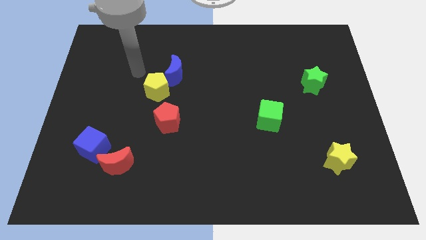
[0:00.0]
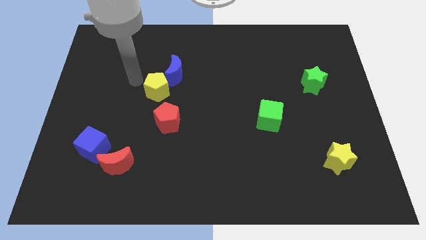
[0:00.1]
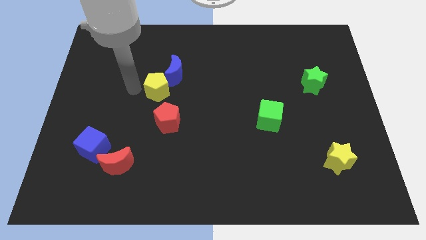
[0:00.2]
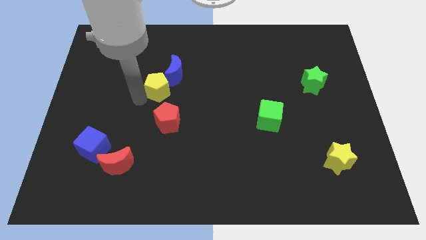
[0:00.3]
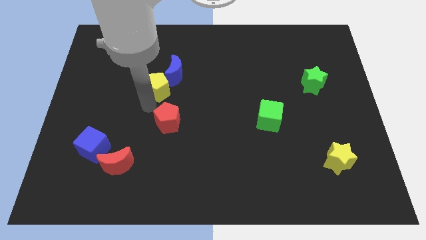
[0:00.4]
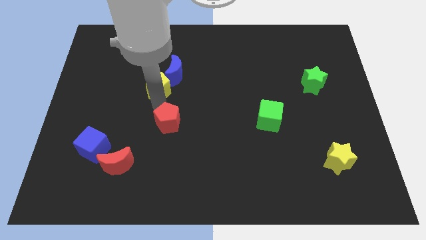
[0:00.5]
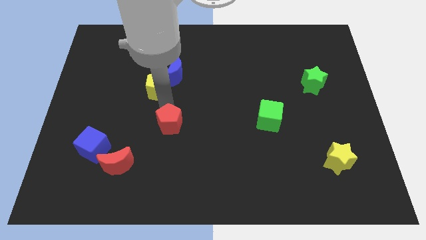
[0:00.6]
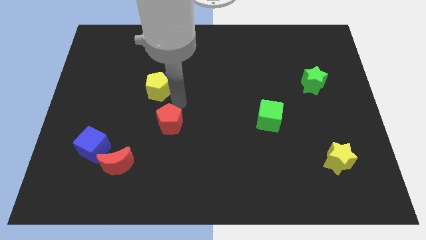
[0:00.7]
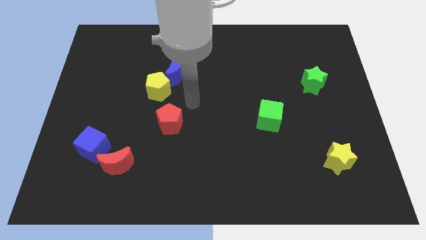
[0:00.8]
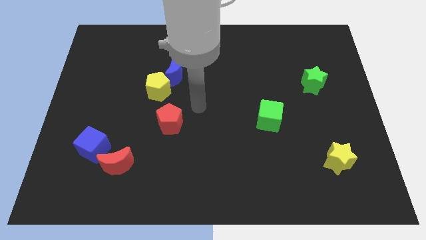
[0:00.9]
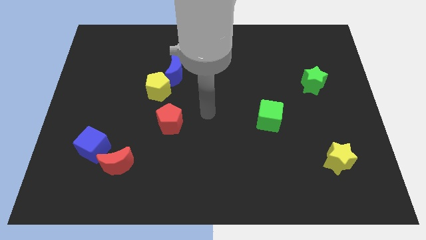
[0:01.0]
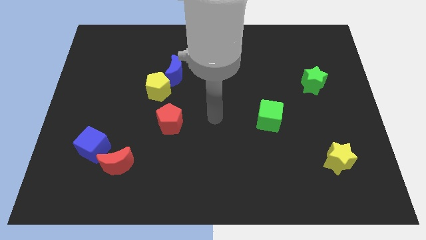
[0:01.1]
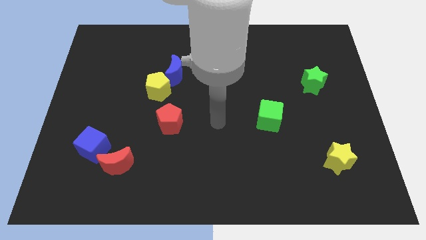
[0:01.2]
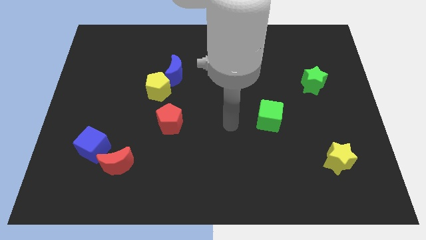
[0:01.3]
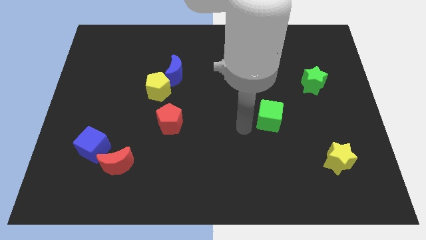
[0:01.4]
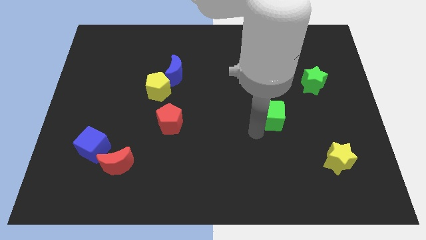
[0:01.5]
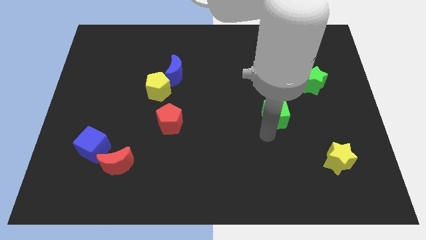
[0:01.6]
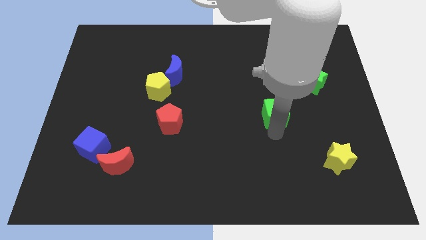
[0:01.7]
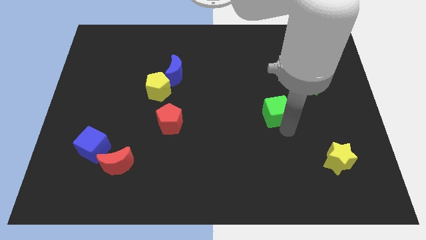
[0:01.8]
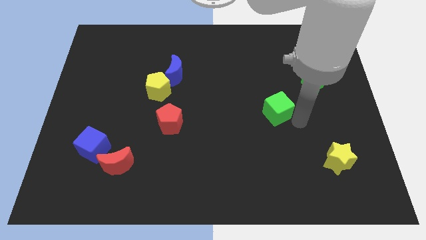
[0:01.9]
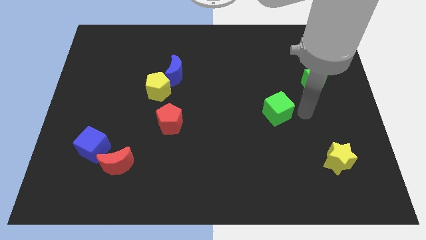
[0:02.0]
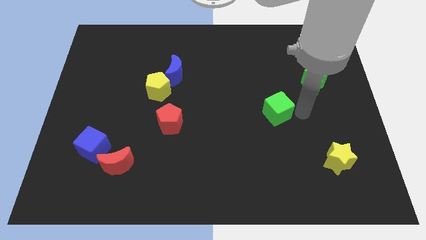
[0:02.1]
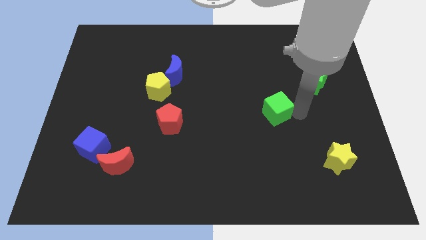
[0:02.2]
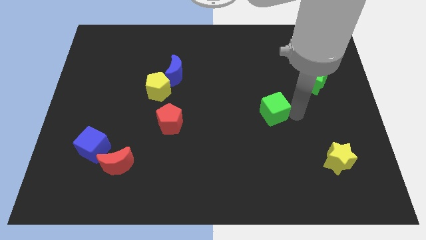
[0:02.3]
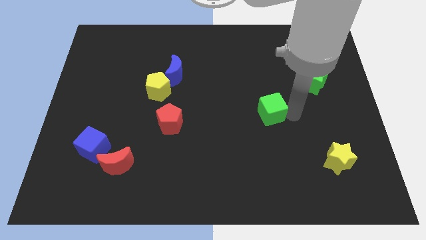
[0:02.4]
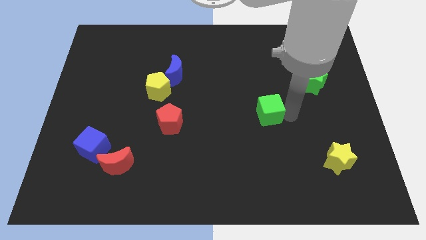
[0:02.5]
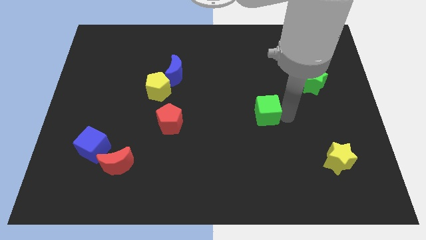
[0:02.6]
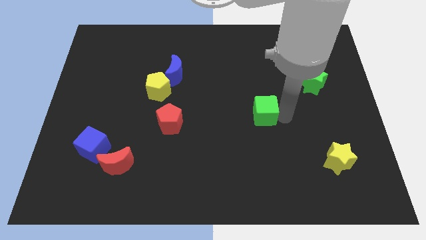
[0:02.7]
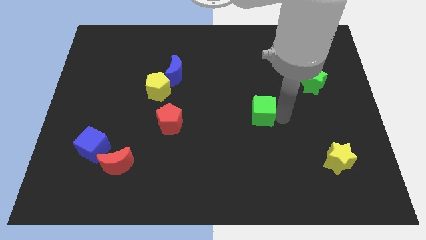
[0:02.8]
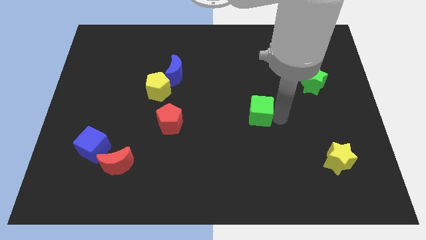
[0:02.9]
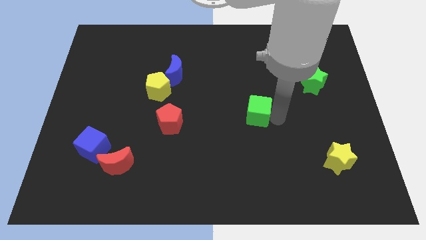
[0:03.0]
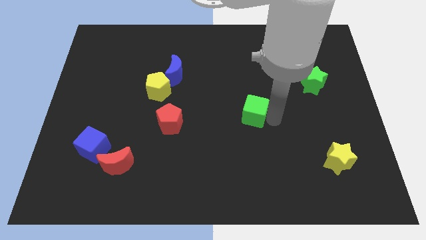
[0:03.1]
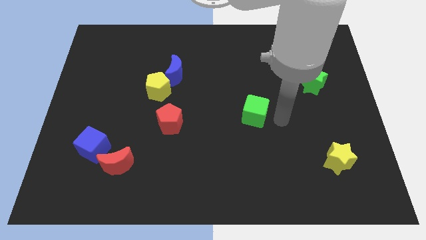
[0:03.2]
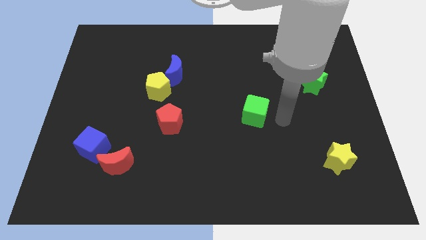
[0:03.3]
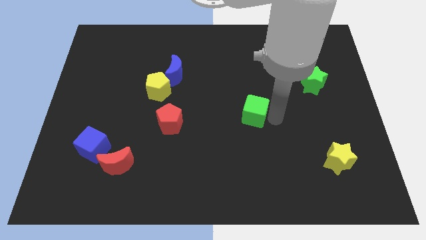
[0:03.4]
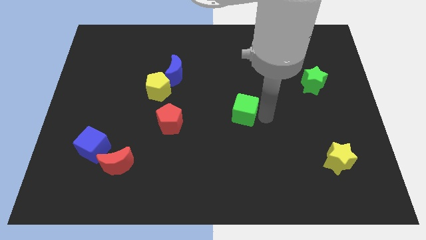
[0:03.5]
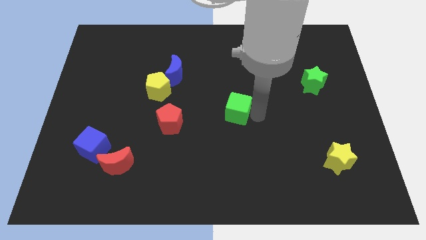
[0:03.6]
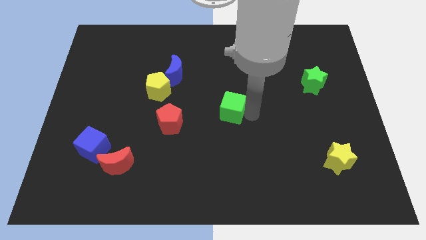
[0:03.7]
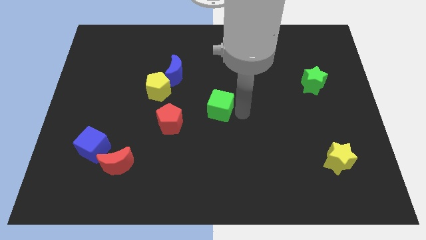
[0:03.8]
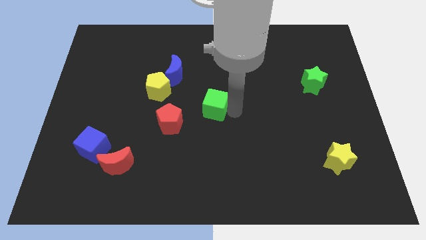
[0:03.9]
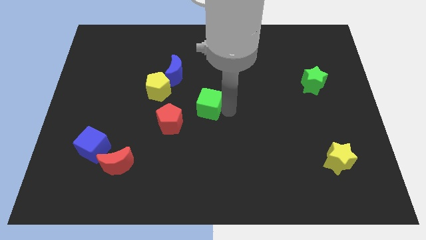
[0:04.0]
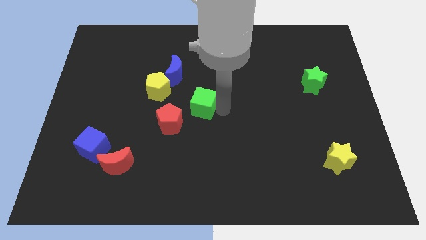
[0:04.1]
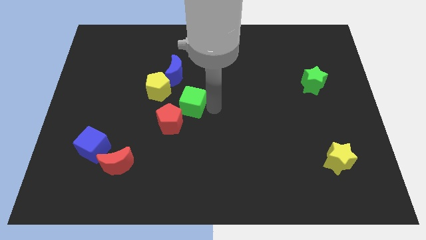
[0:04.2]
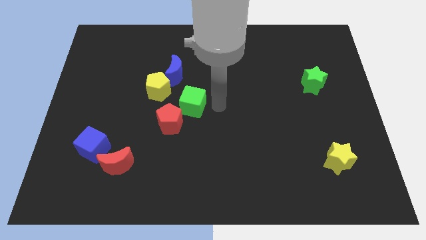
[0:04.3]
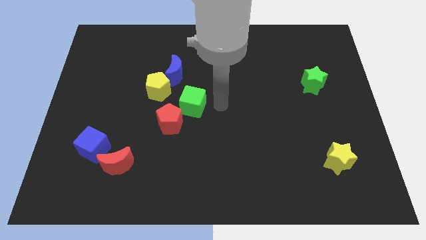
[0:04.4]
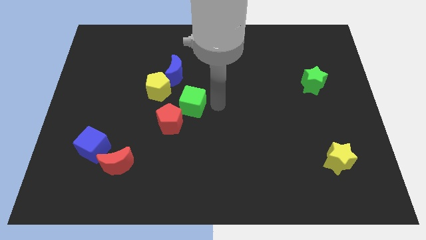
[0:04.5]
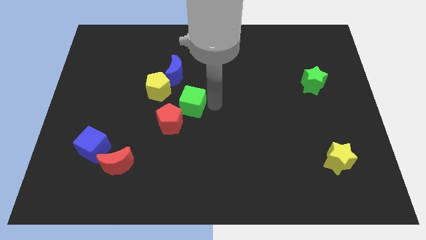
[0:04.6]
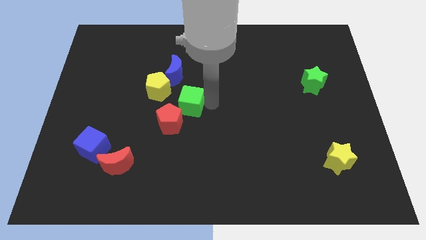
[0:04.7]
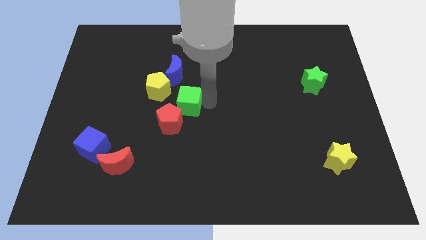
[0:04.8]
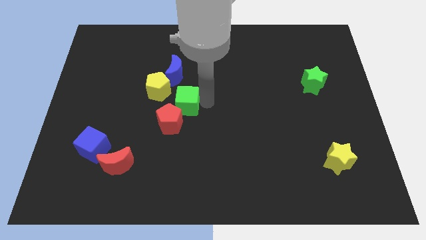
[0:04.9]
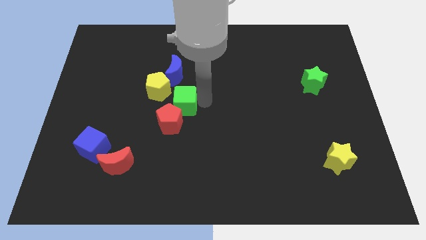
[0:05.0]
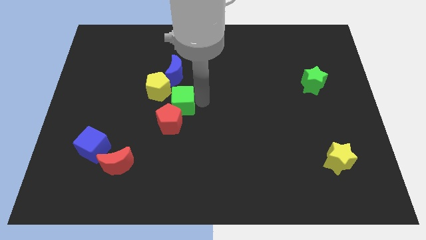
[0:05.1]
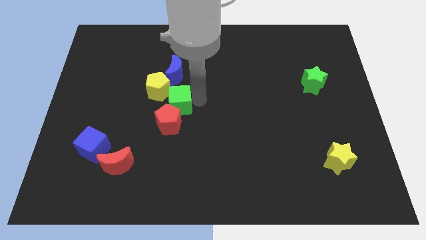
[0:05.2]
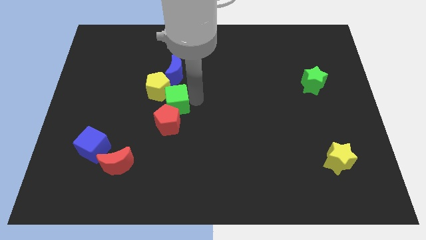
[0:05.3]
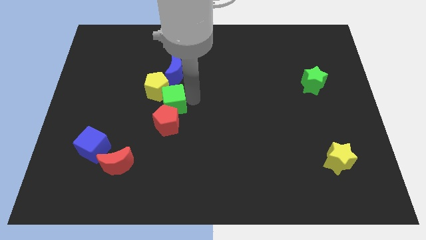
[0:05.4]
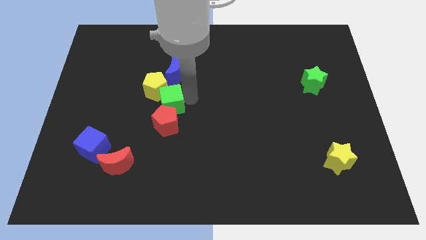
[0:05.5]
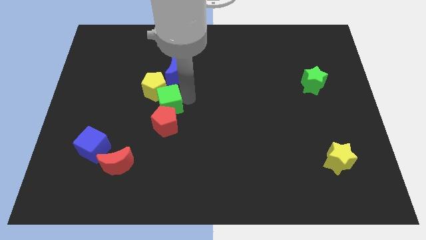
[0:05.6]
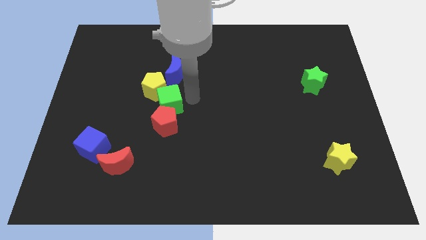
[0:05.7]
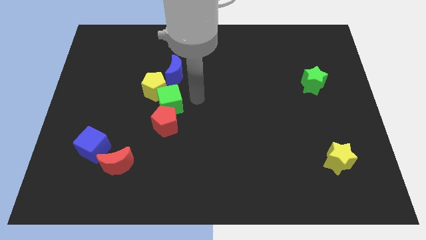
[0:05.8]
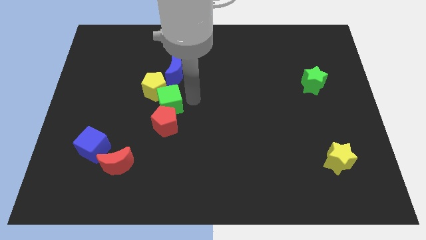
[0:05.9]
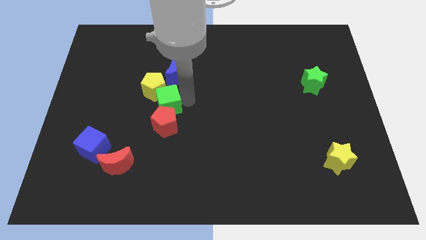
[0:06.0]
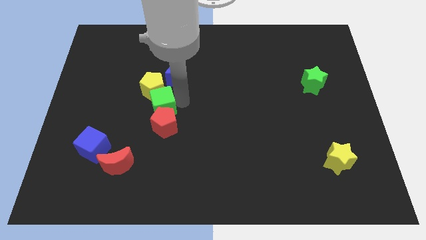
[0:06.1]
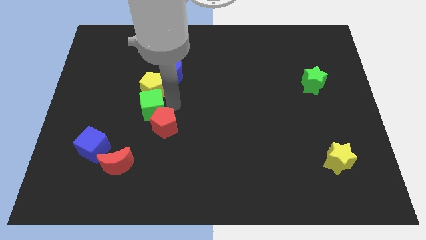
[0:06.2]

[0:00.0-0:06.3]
put the green cube to the bottom left of the yellow pentagon

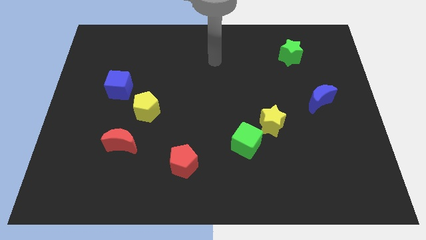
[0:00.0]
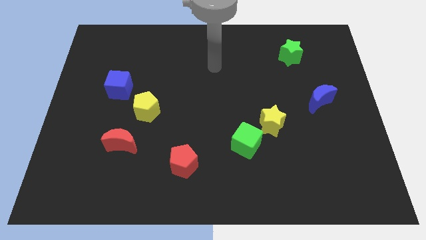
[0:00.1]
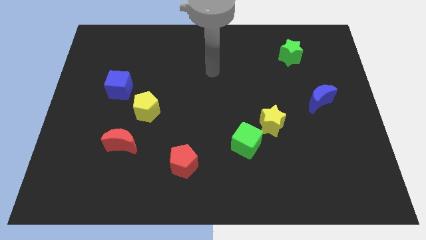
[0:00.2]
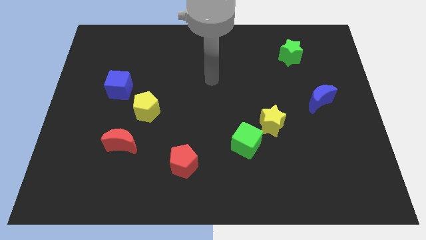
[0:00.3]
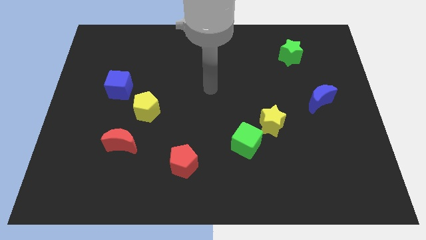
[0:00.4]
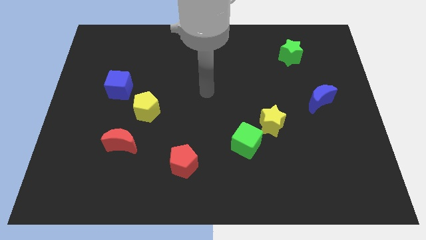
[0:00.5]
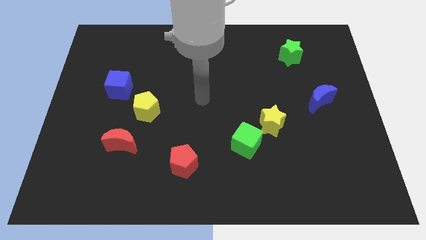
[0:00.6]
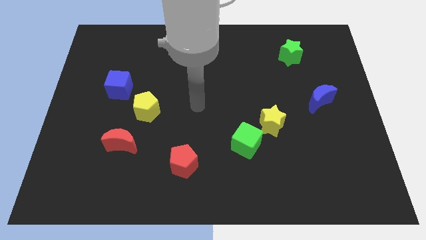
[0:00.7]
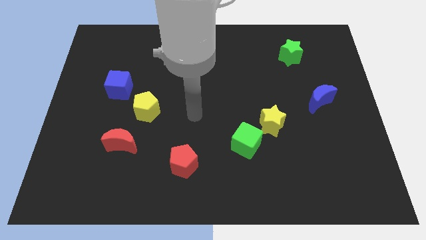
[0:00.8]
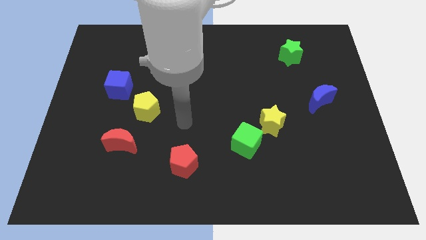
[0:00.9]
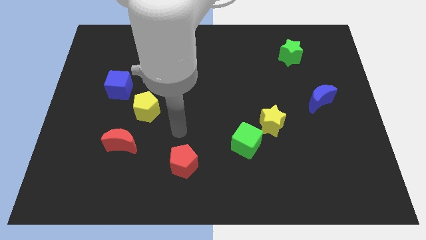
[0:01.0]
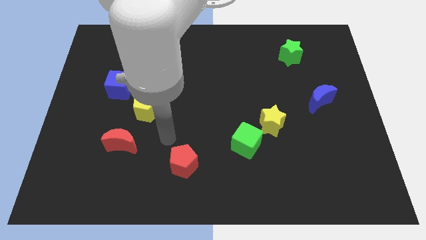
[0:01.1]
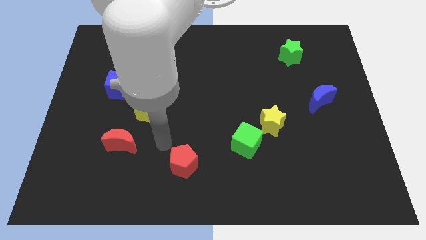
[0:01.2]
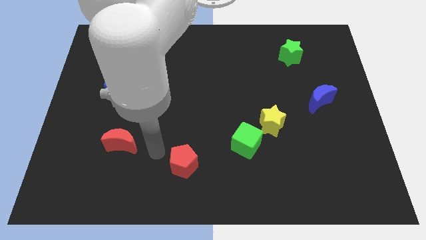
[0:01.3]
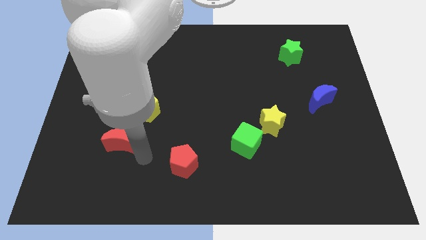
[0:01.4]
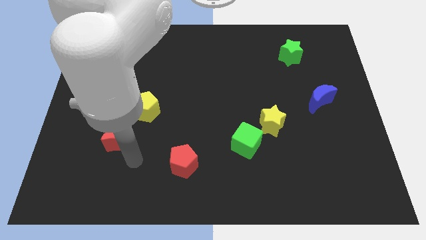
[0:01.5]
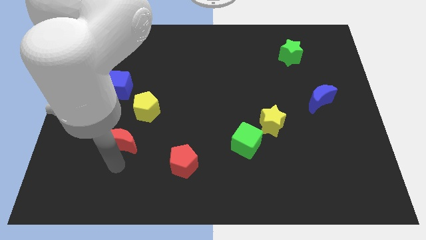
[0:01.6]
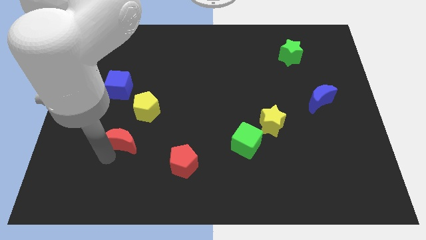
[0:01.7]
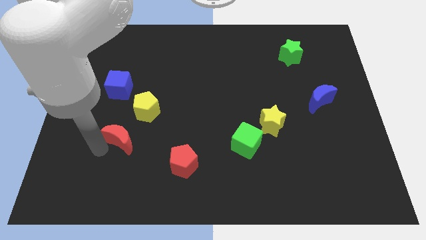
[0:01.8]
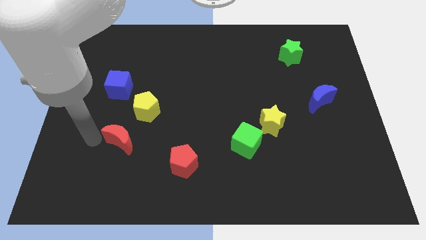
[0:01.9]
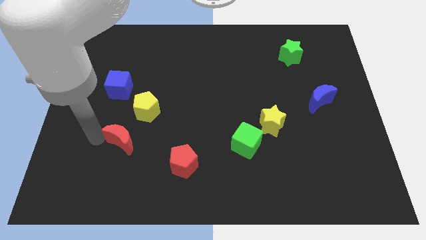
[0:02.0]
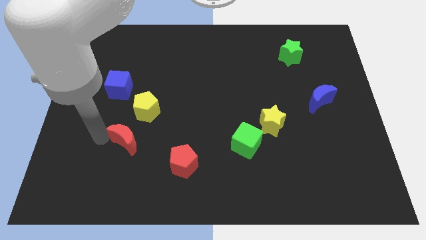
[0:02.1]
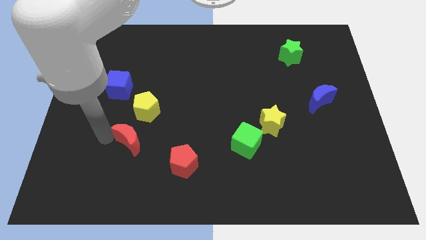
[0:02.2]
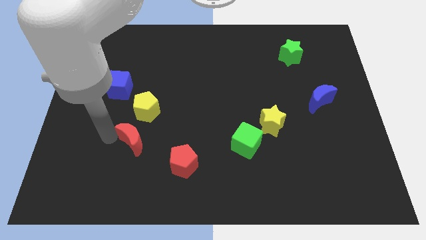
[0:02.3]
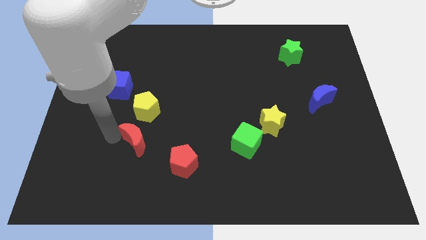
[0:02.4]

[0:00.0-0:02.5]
push the red moon diagonally up and to the left of the red pentagon
